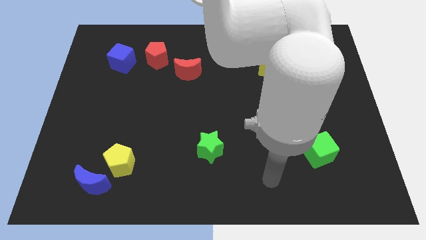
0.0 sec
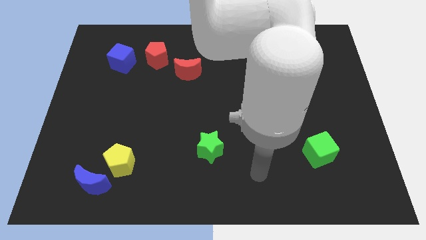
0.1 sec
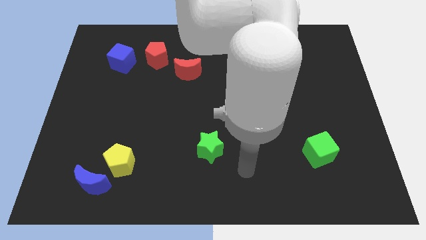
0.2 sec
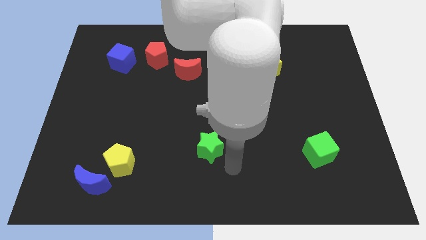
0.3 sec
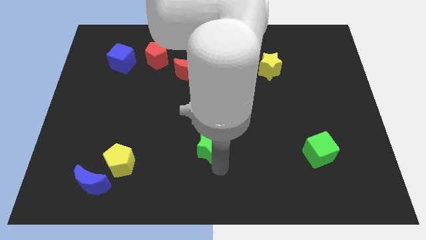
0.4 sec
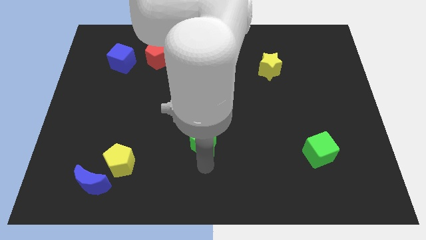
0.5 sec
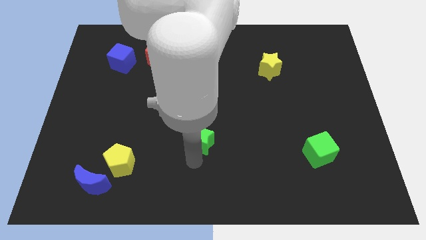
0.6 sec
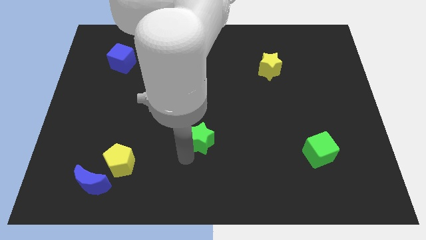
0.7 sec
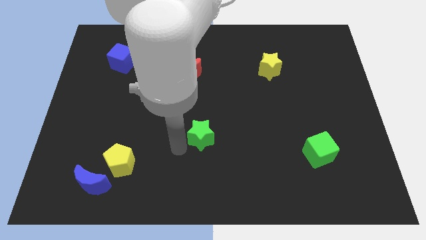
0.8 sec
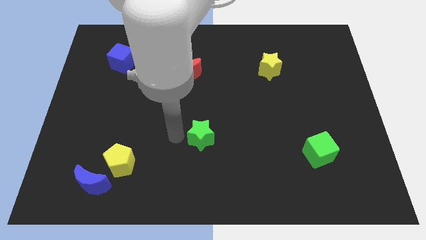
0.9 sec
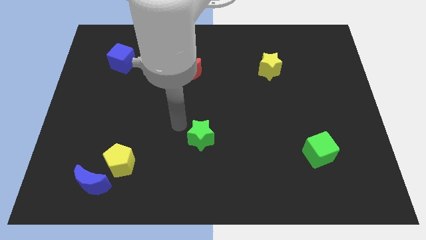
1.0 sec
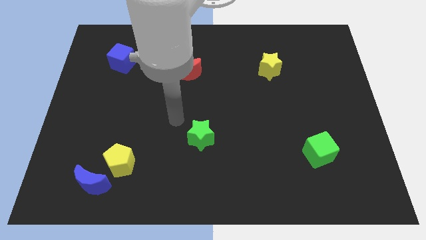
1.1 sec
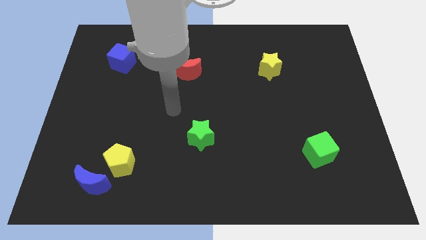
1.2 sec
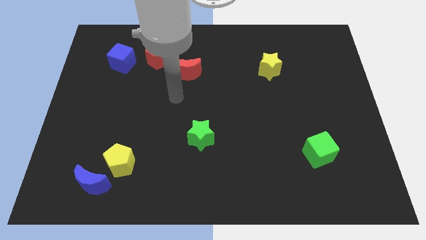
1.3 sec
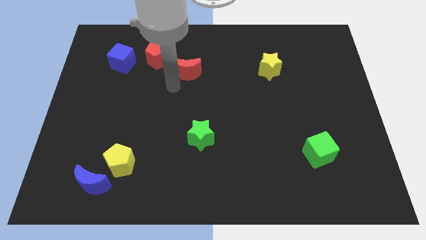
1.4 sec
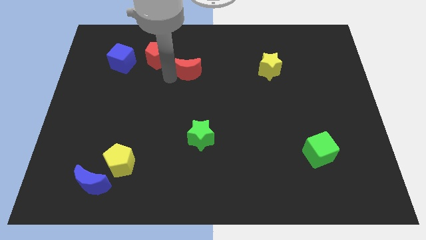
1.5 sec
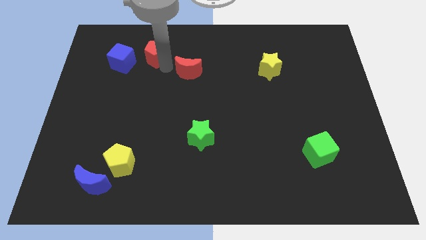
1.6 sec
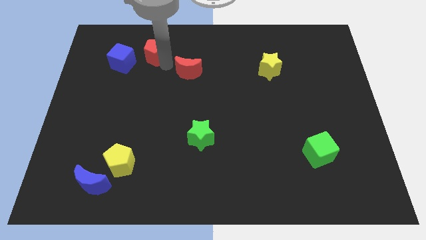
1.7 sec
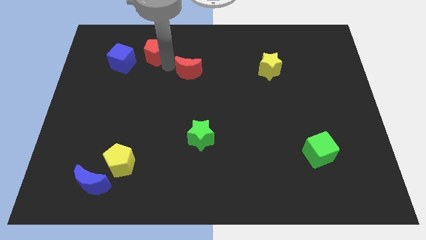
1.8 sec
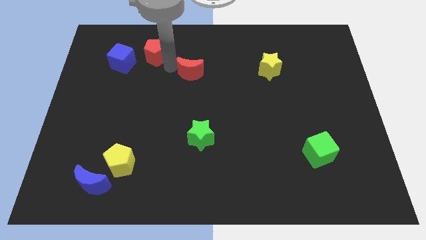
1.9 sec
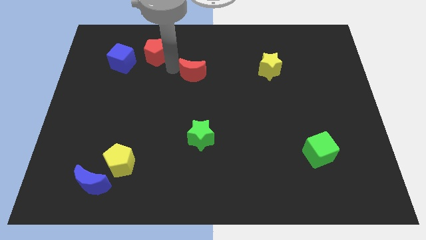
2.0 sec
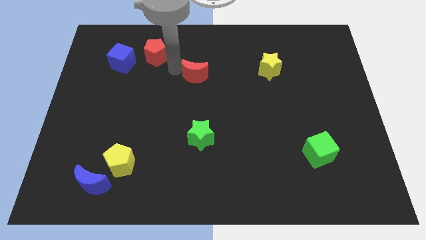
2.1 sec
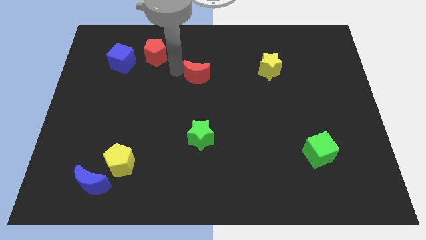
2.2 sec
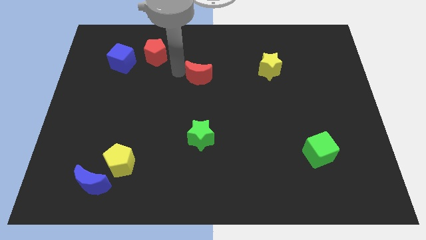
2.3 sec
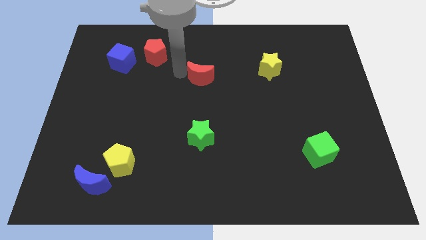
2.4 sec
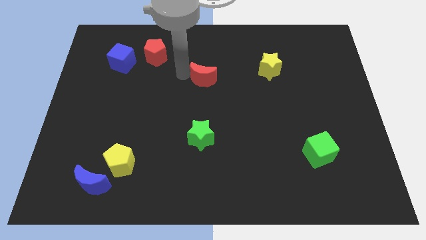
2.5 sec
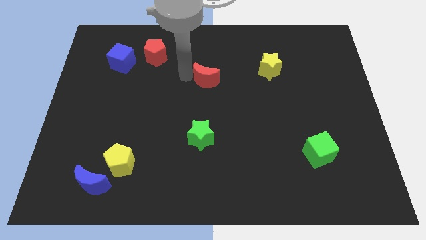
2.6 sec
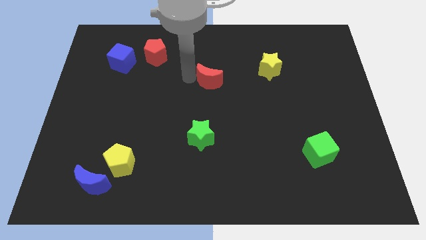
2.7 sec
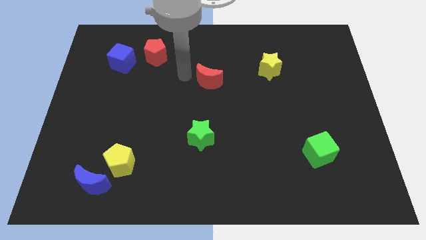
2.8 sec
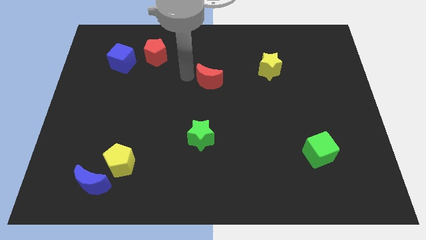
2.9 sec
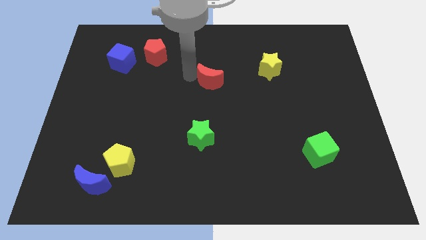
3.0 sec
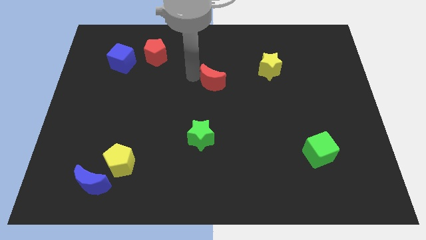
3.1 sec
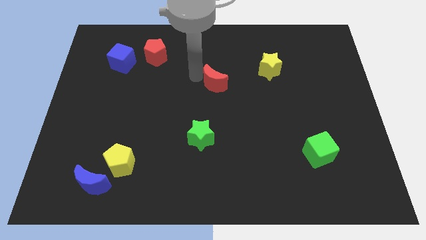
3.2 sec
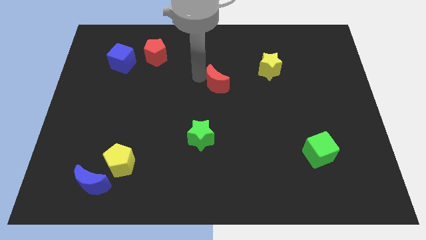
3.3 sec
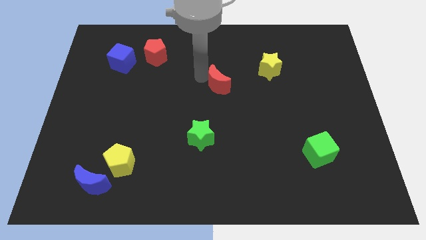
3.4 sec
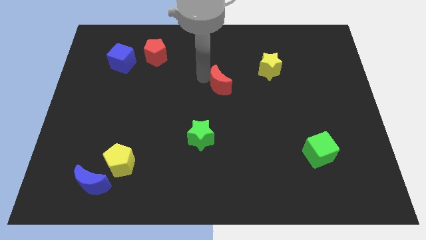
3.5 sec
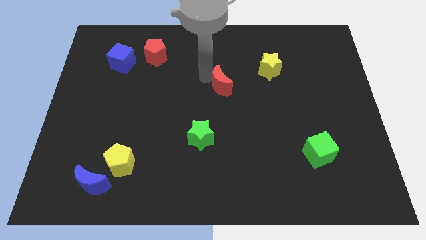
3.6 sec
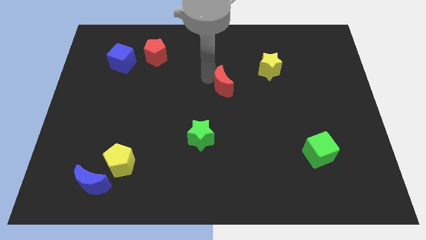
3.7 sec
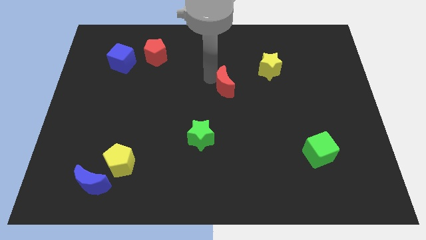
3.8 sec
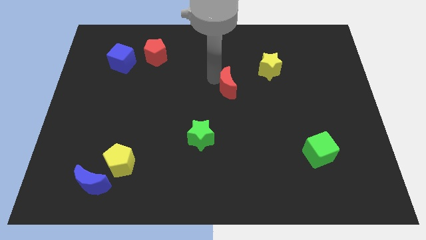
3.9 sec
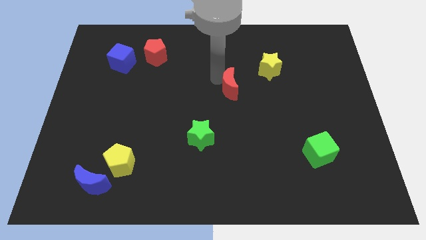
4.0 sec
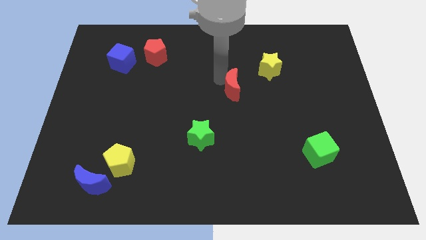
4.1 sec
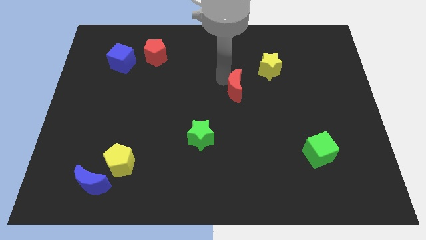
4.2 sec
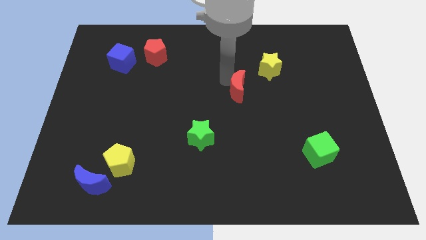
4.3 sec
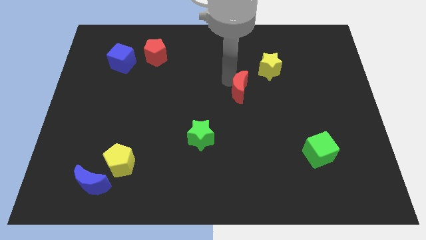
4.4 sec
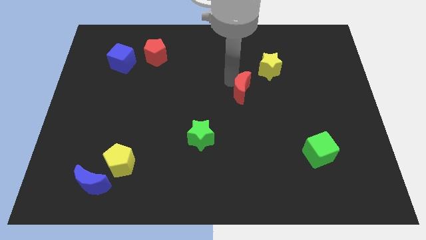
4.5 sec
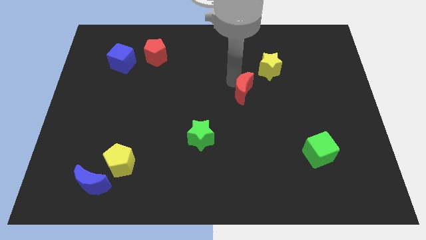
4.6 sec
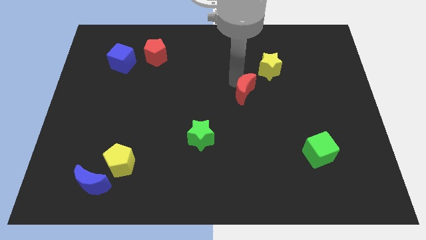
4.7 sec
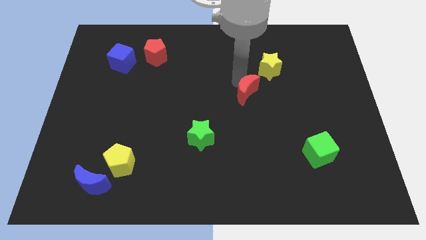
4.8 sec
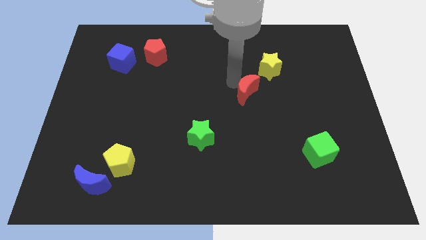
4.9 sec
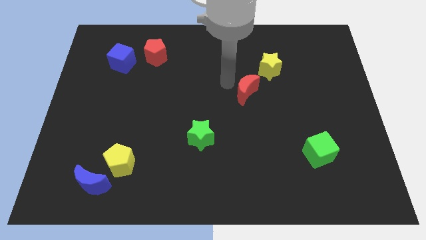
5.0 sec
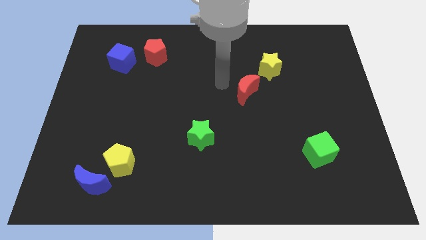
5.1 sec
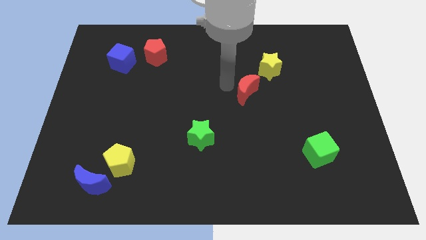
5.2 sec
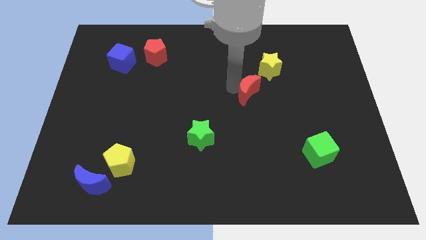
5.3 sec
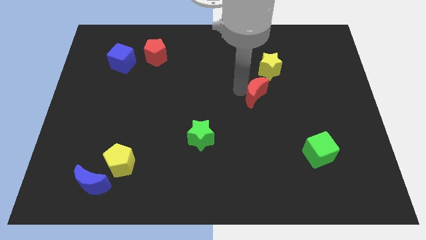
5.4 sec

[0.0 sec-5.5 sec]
slide the red moon to the bottom of the yellow star

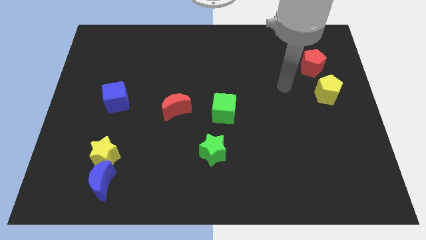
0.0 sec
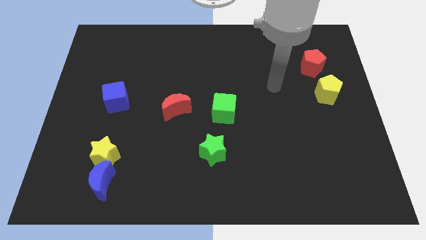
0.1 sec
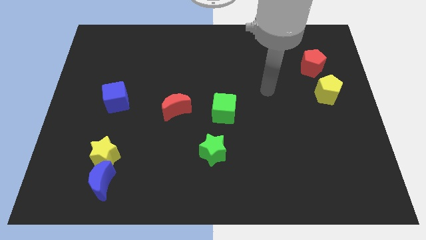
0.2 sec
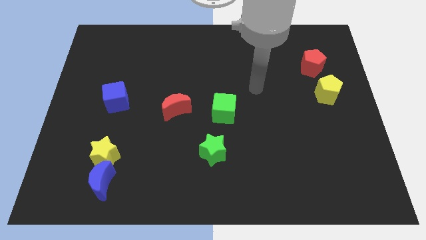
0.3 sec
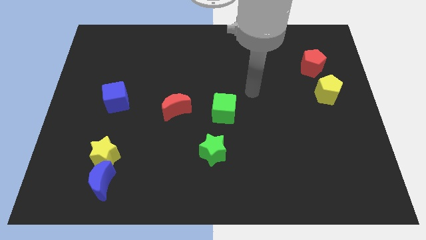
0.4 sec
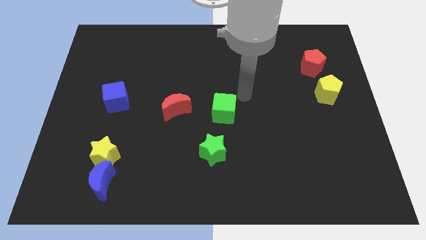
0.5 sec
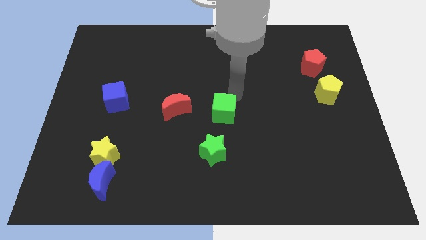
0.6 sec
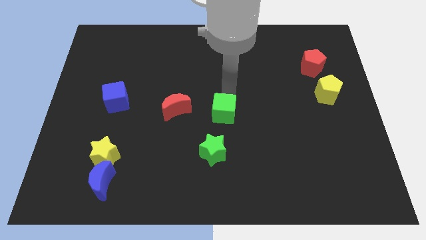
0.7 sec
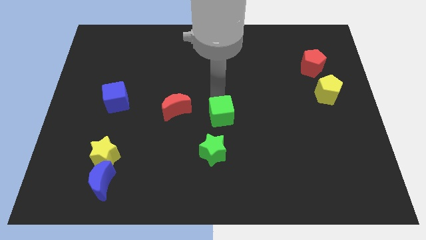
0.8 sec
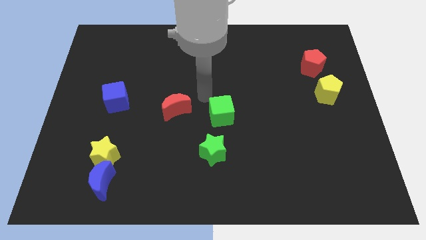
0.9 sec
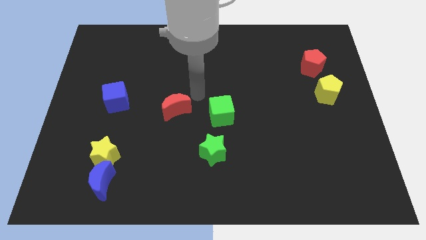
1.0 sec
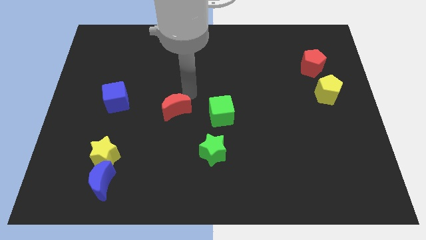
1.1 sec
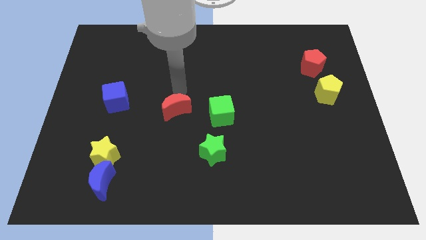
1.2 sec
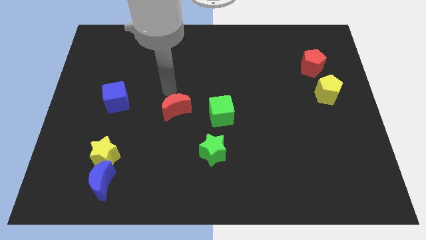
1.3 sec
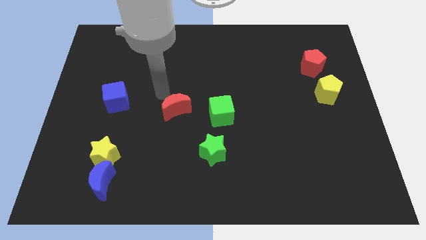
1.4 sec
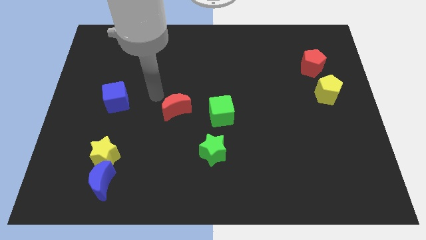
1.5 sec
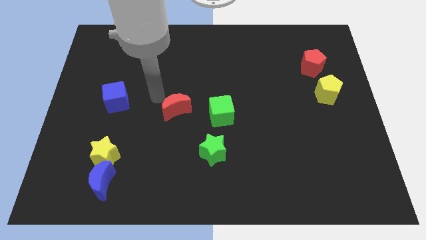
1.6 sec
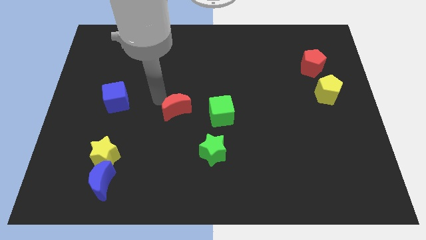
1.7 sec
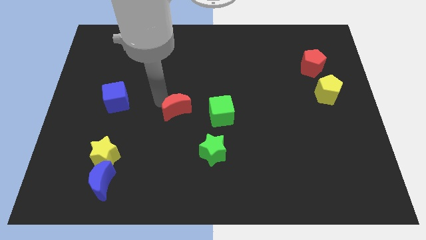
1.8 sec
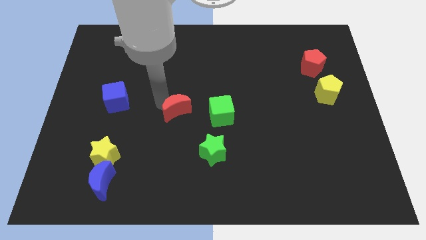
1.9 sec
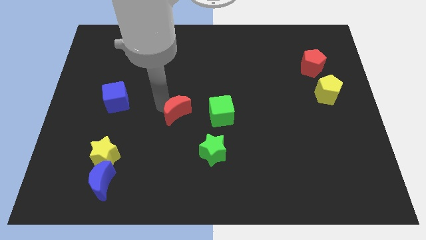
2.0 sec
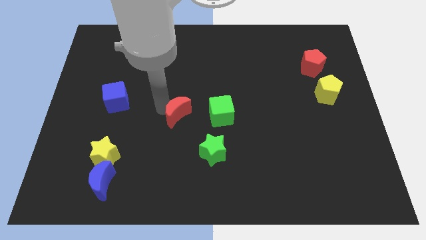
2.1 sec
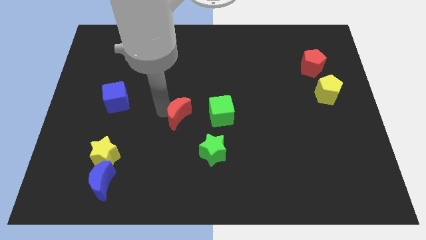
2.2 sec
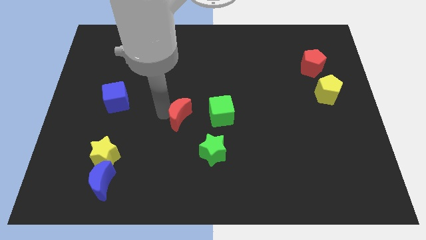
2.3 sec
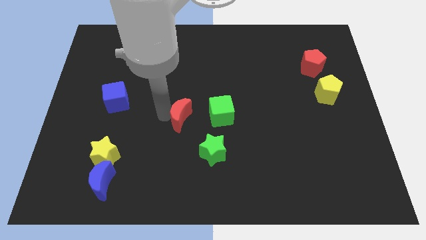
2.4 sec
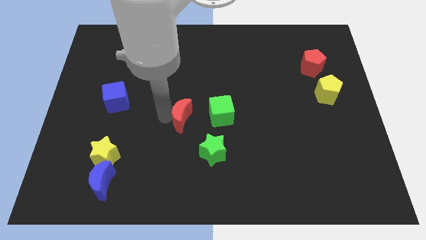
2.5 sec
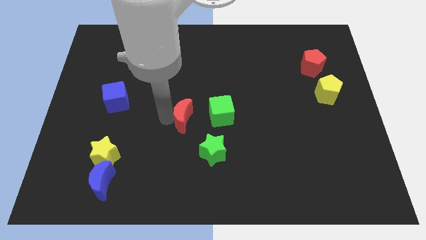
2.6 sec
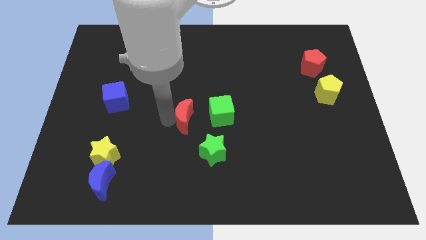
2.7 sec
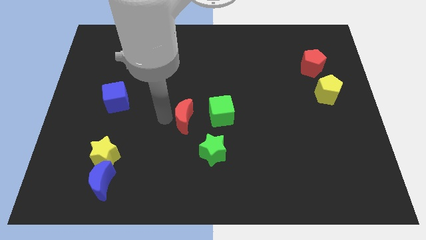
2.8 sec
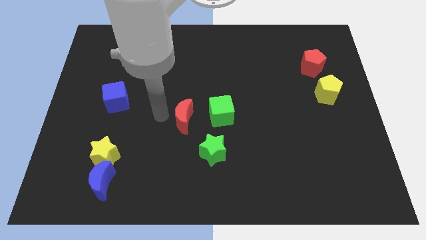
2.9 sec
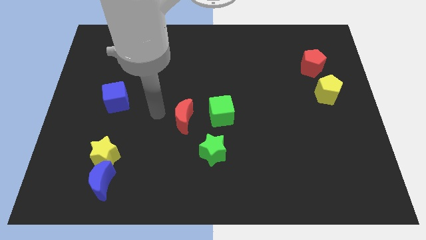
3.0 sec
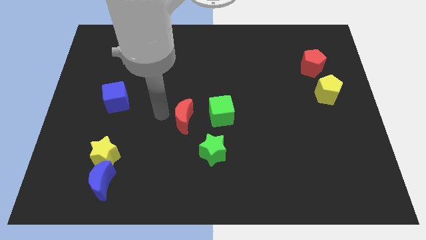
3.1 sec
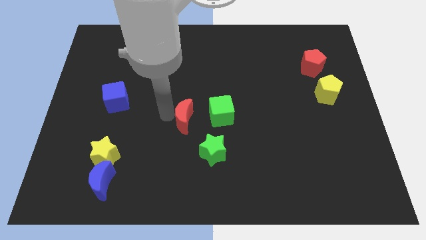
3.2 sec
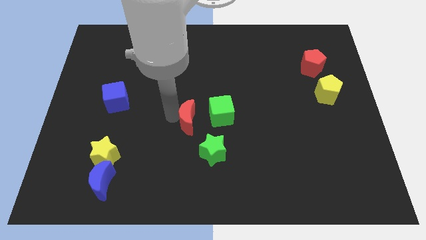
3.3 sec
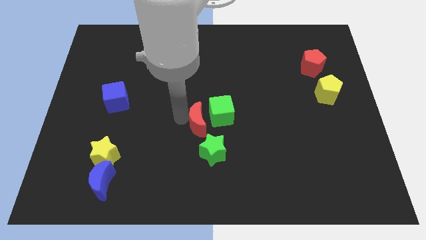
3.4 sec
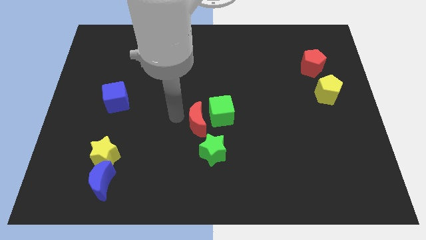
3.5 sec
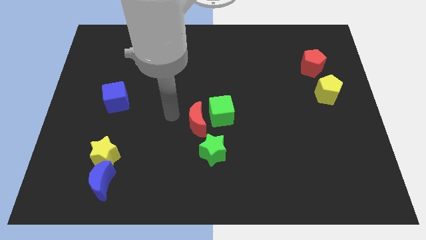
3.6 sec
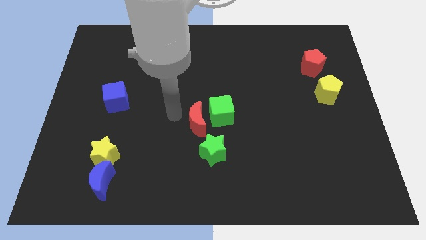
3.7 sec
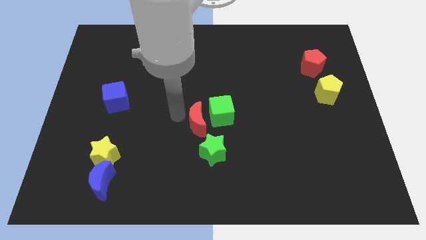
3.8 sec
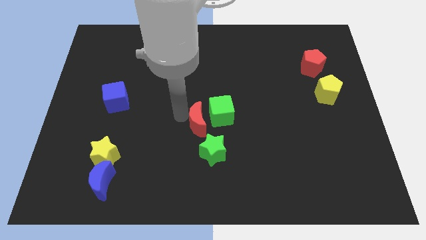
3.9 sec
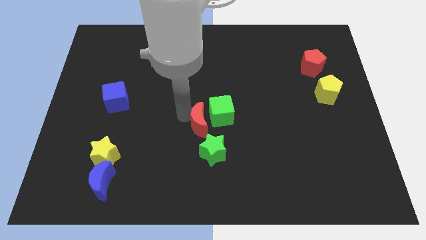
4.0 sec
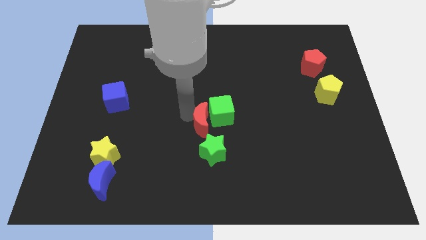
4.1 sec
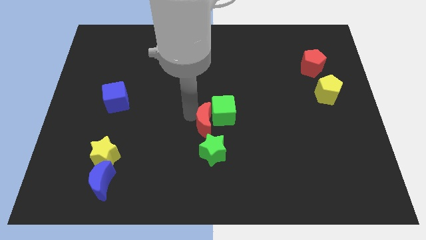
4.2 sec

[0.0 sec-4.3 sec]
slide the red moon below the green cube
